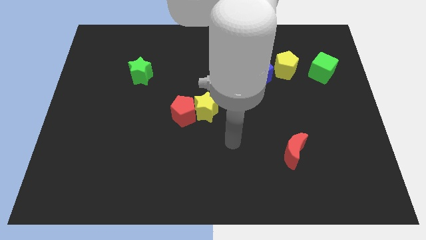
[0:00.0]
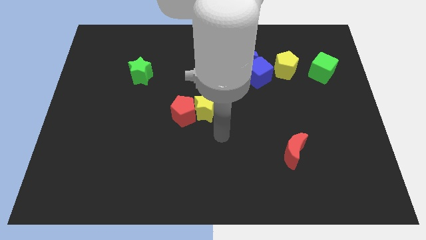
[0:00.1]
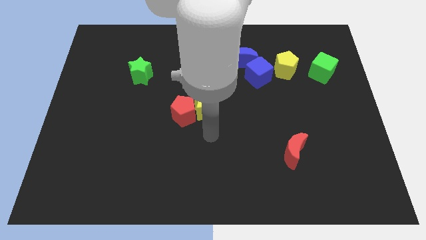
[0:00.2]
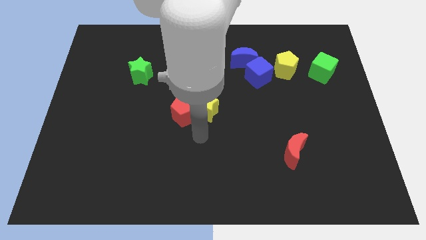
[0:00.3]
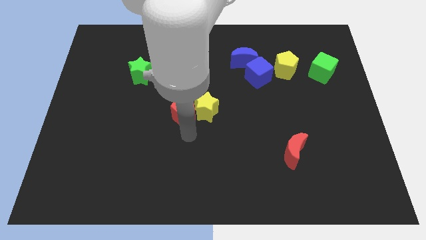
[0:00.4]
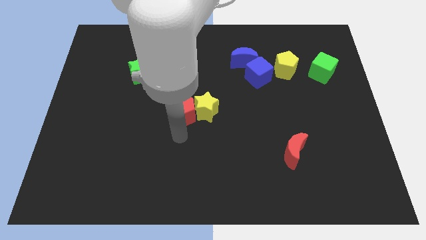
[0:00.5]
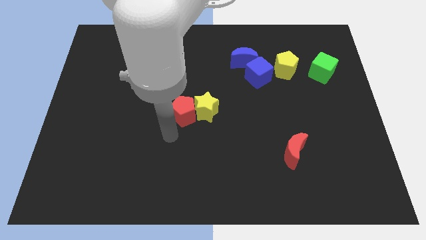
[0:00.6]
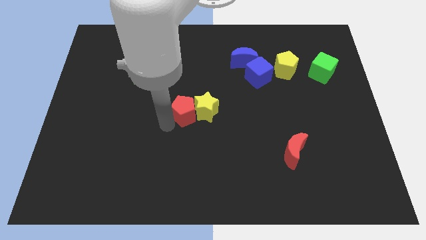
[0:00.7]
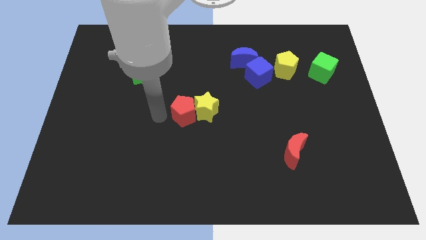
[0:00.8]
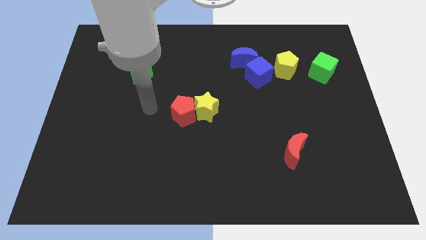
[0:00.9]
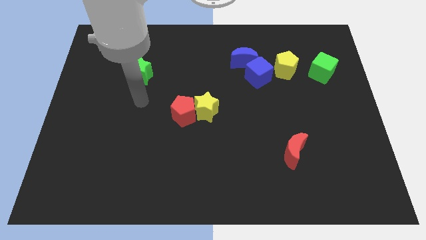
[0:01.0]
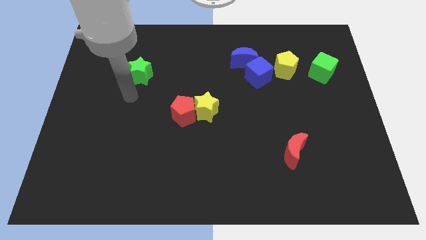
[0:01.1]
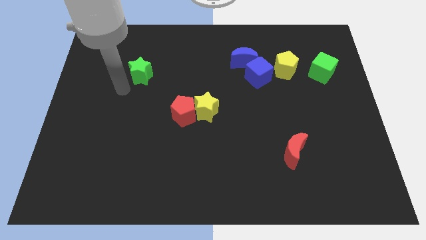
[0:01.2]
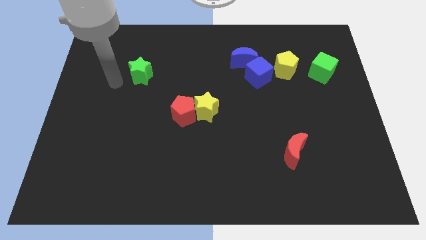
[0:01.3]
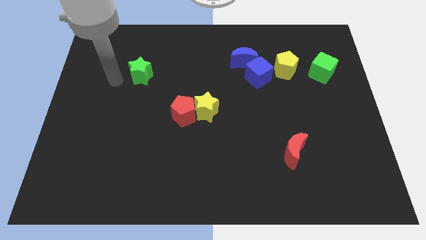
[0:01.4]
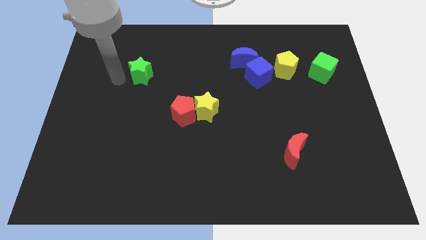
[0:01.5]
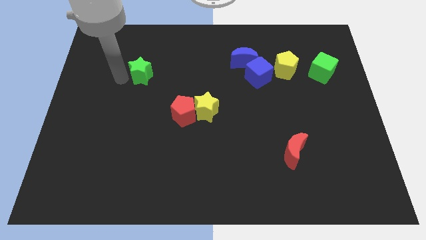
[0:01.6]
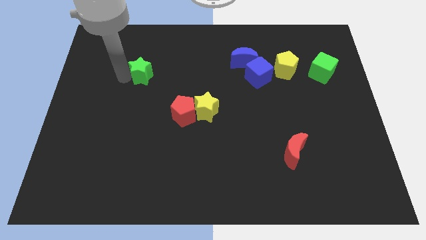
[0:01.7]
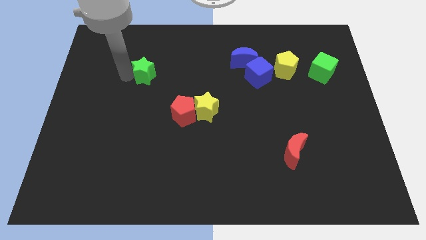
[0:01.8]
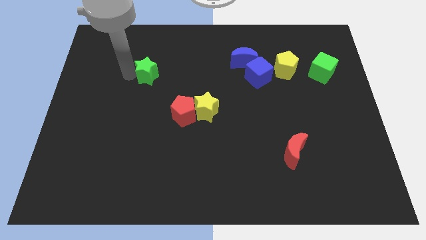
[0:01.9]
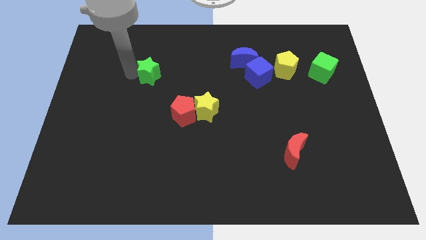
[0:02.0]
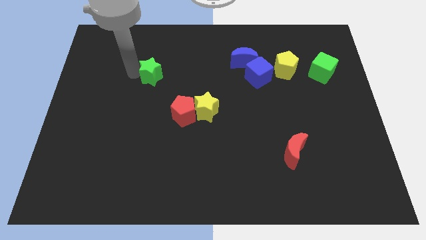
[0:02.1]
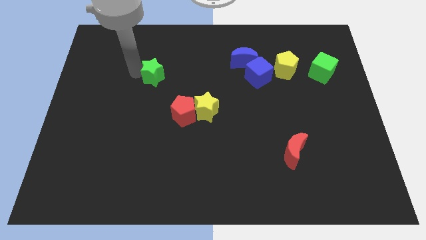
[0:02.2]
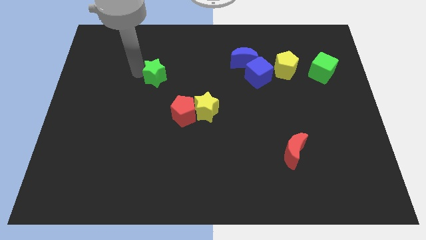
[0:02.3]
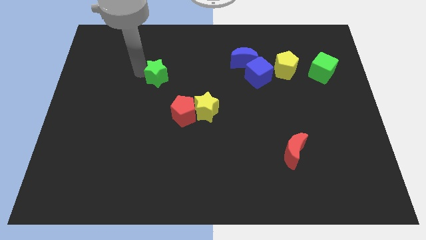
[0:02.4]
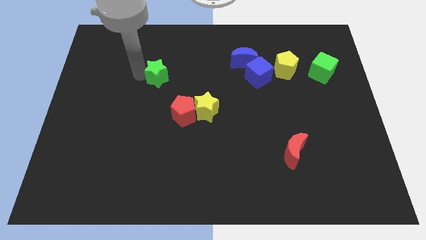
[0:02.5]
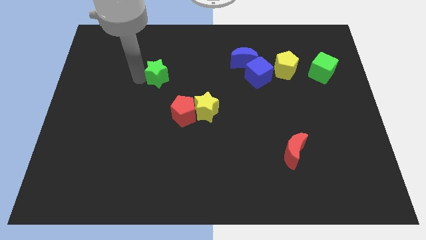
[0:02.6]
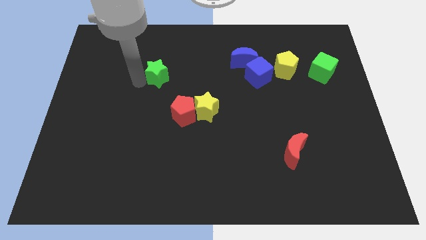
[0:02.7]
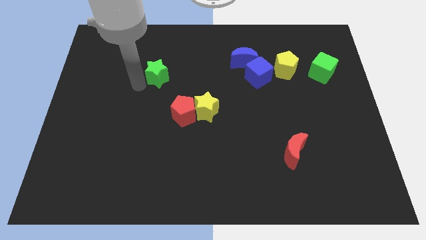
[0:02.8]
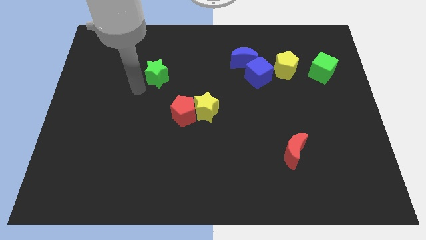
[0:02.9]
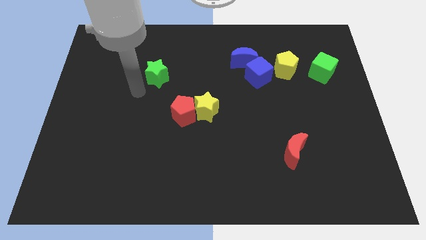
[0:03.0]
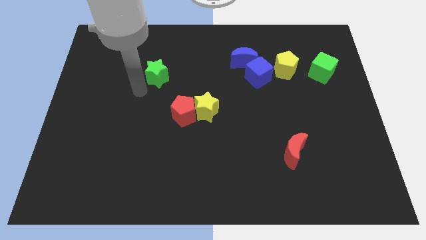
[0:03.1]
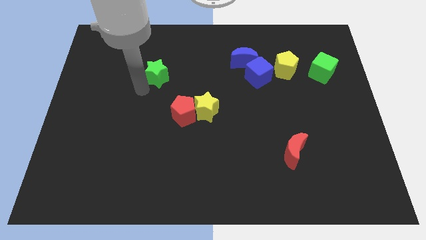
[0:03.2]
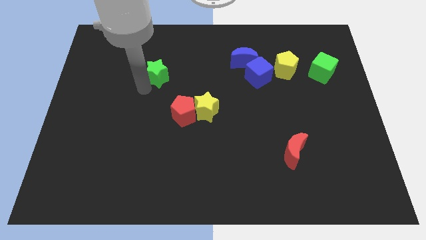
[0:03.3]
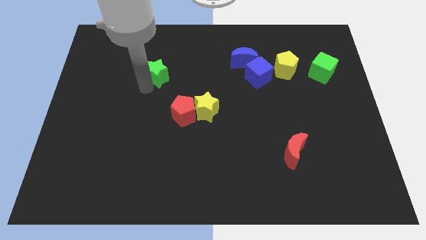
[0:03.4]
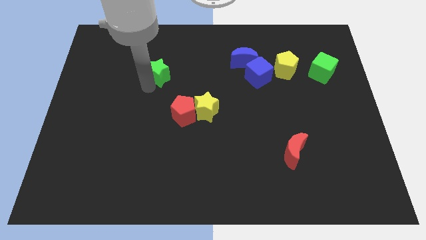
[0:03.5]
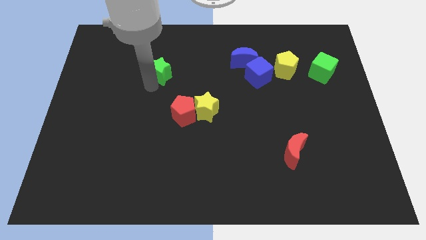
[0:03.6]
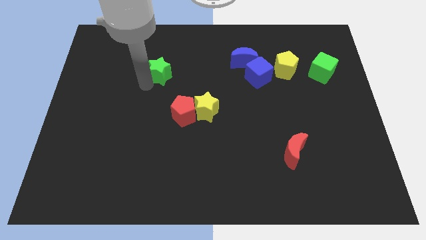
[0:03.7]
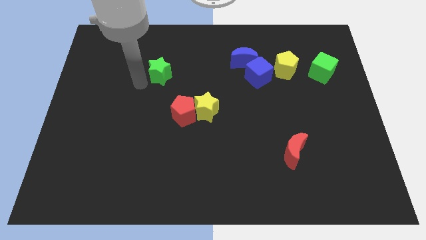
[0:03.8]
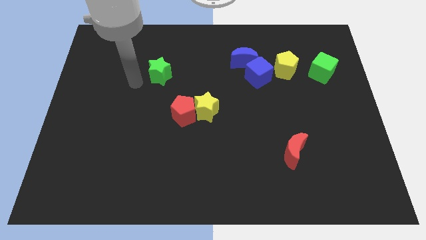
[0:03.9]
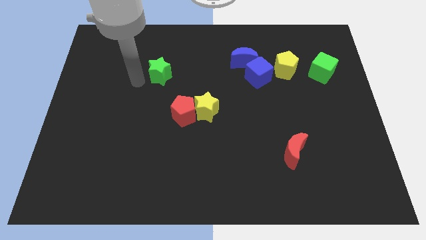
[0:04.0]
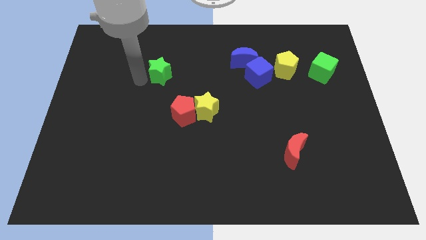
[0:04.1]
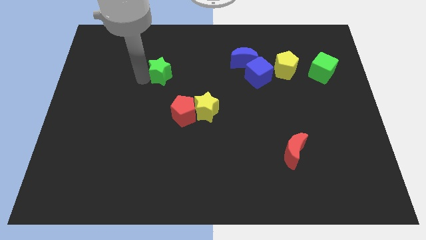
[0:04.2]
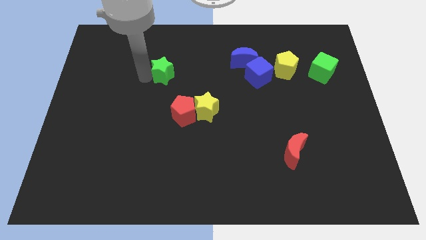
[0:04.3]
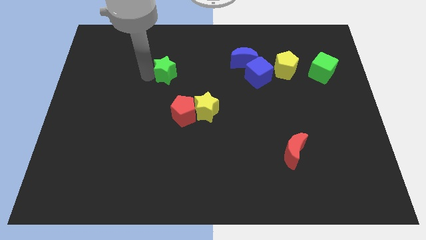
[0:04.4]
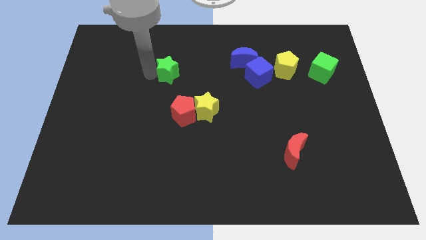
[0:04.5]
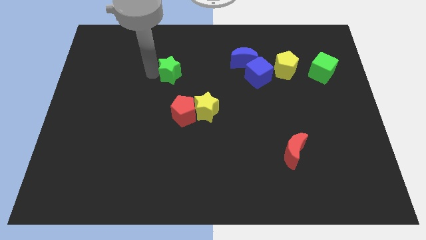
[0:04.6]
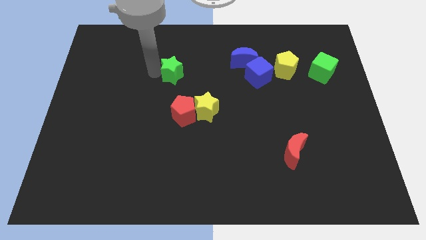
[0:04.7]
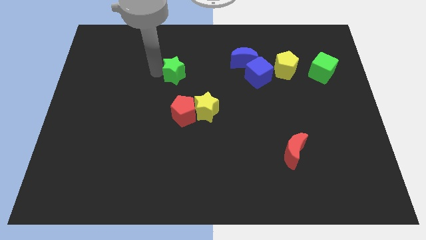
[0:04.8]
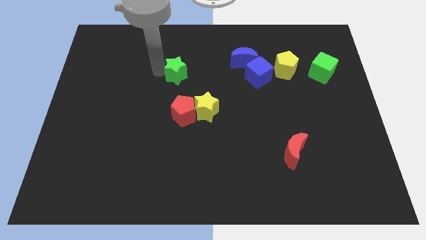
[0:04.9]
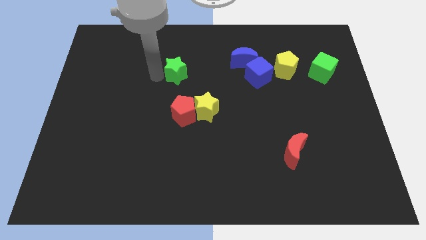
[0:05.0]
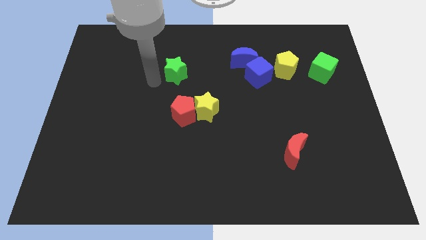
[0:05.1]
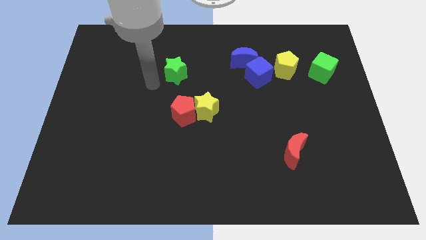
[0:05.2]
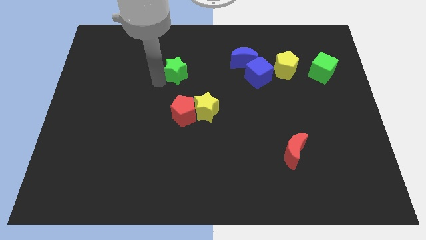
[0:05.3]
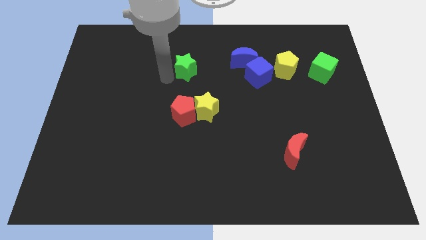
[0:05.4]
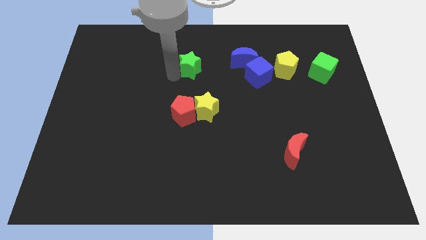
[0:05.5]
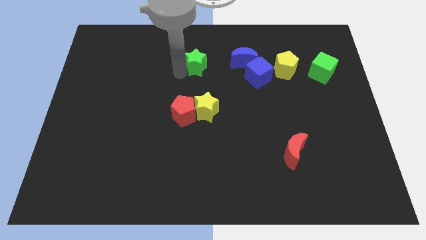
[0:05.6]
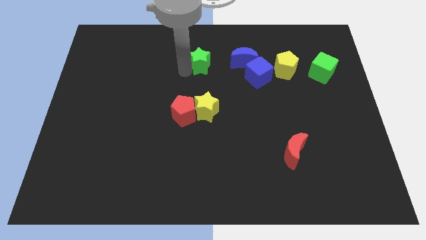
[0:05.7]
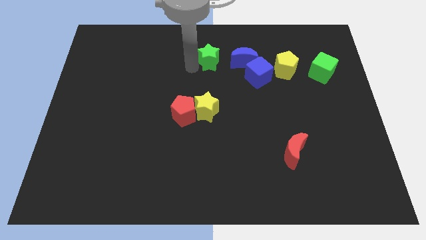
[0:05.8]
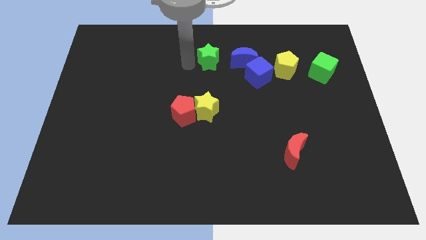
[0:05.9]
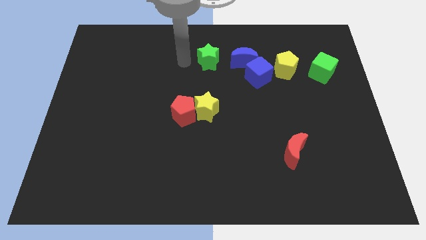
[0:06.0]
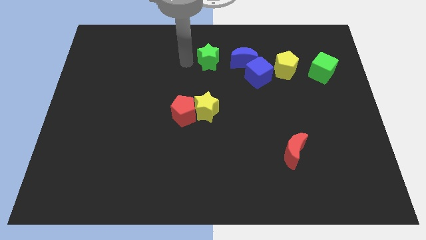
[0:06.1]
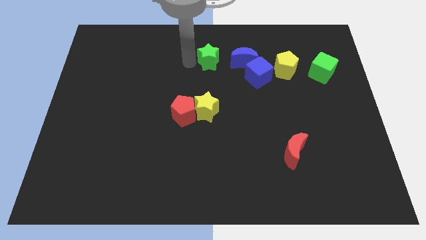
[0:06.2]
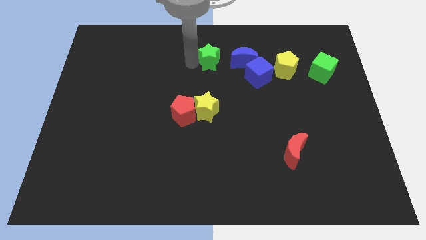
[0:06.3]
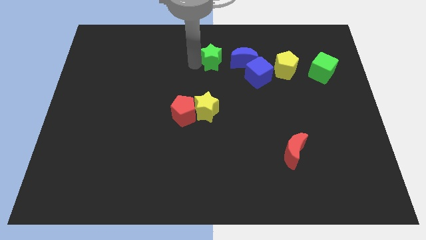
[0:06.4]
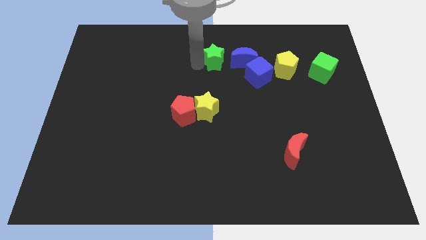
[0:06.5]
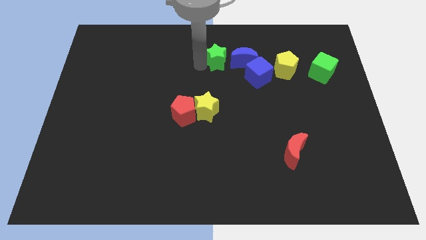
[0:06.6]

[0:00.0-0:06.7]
push the green star to the top left side of the blue cube
